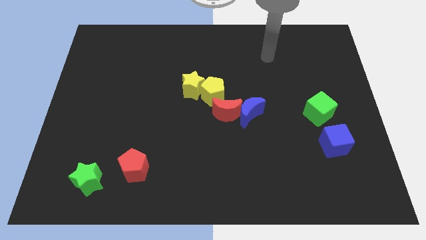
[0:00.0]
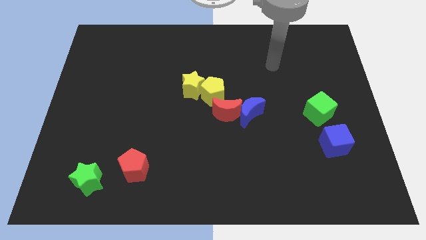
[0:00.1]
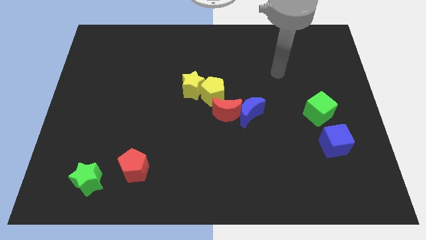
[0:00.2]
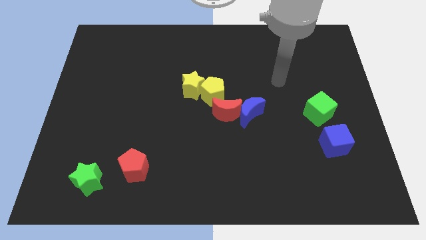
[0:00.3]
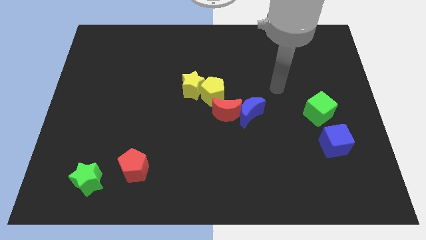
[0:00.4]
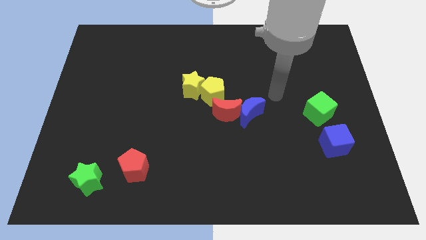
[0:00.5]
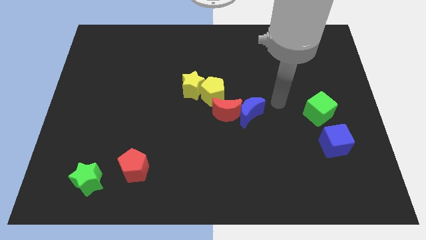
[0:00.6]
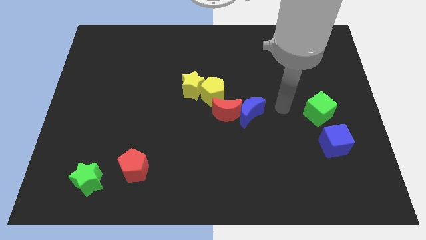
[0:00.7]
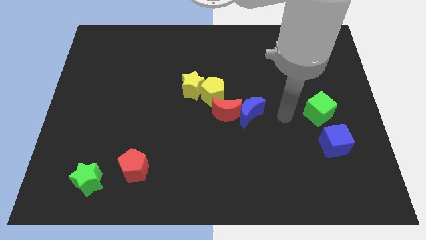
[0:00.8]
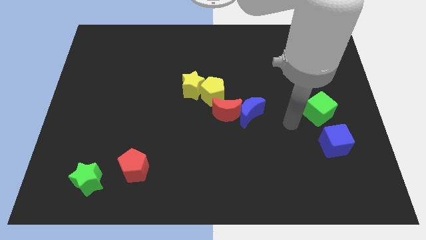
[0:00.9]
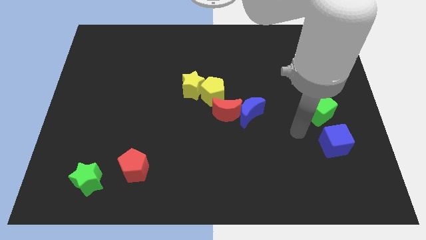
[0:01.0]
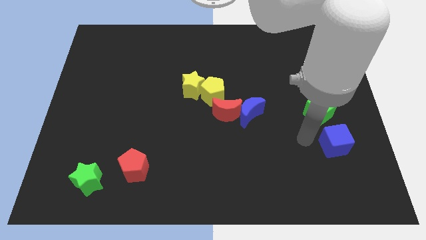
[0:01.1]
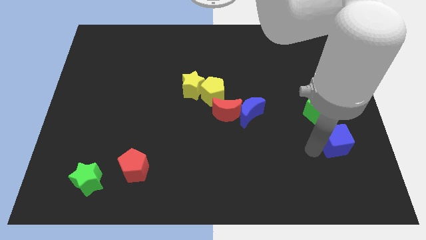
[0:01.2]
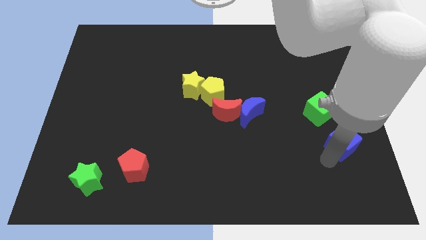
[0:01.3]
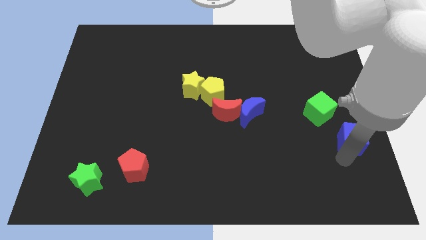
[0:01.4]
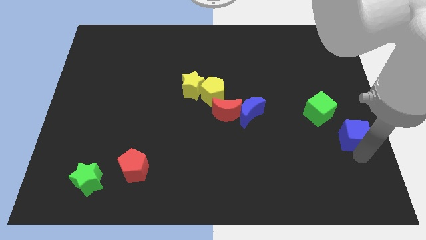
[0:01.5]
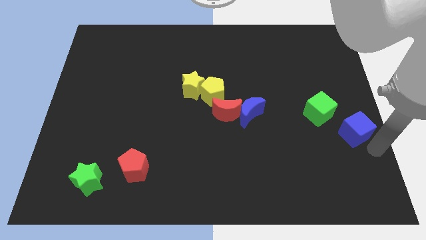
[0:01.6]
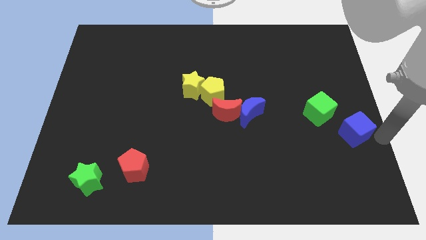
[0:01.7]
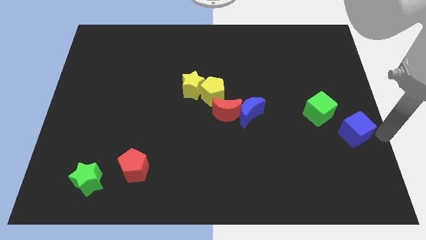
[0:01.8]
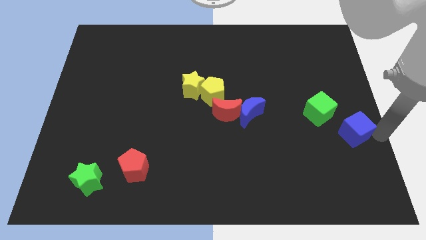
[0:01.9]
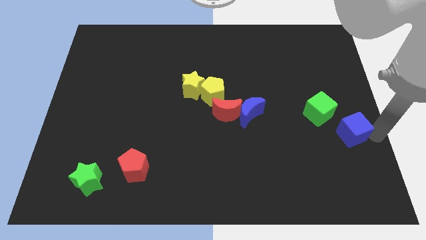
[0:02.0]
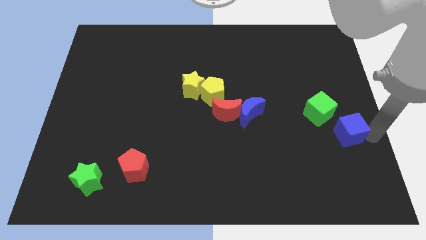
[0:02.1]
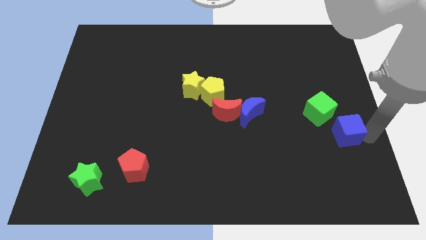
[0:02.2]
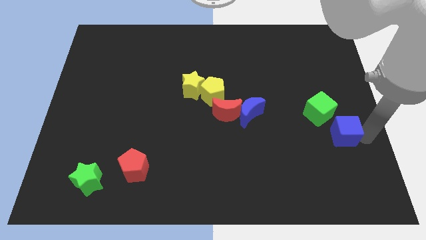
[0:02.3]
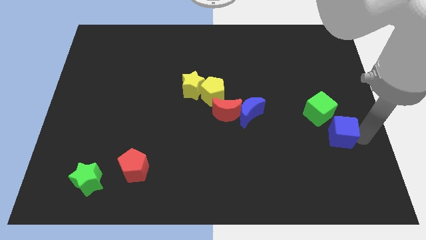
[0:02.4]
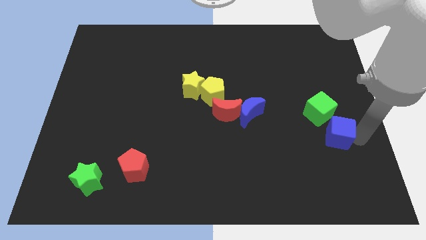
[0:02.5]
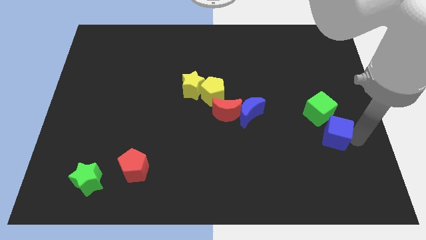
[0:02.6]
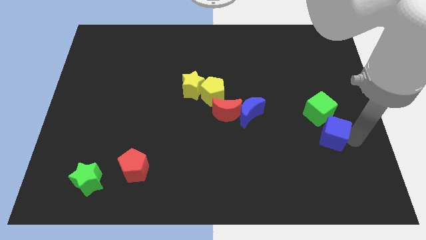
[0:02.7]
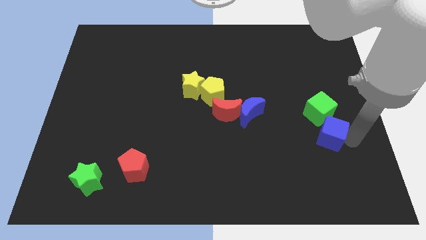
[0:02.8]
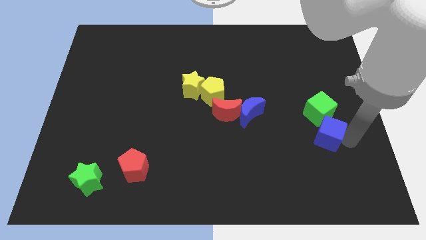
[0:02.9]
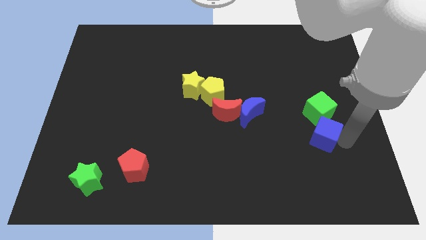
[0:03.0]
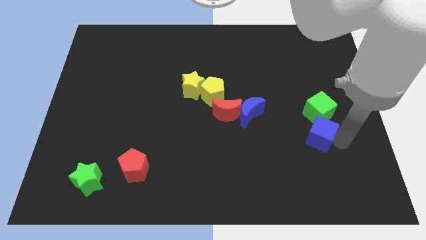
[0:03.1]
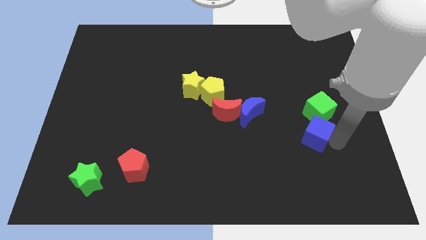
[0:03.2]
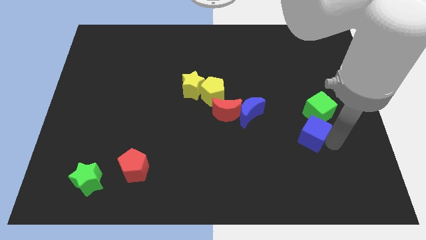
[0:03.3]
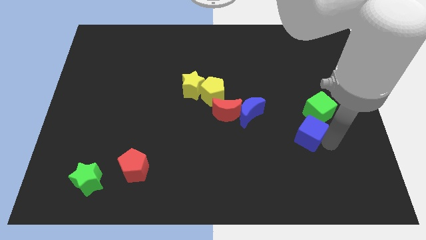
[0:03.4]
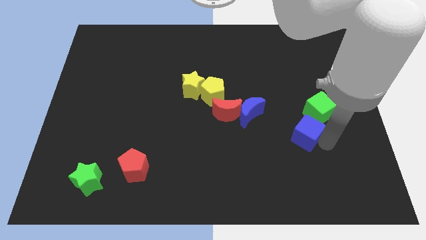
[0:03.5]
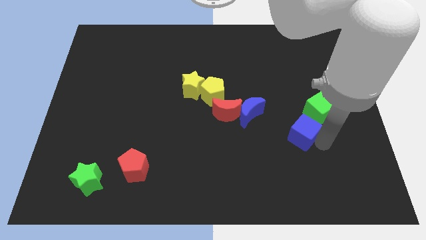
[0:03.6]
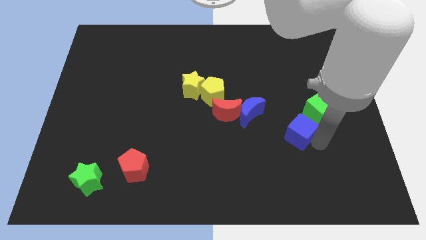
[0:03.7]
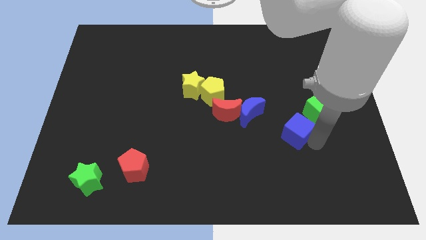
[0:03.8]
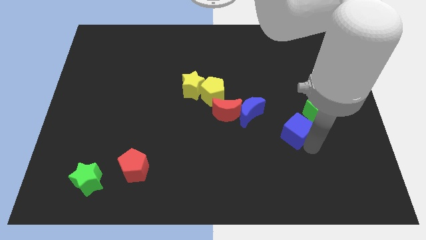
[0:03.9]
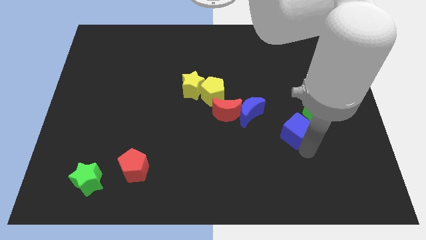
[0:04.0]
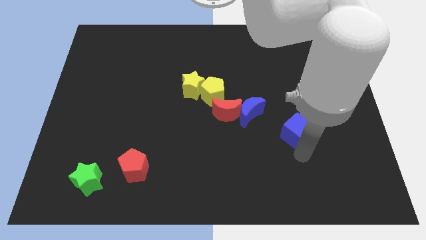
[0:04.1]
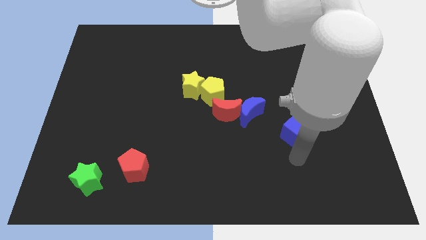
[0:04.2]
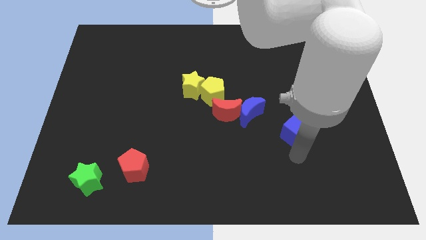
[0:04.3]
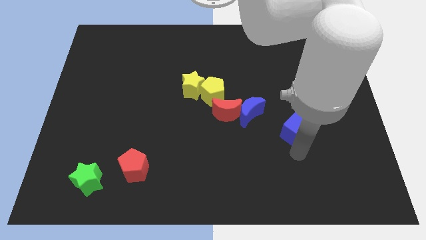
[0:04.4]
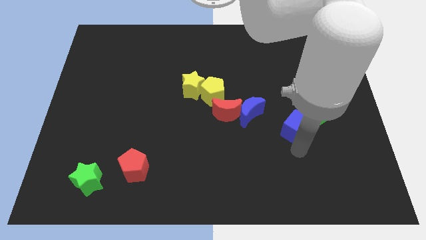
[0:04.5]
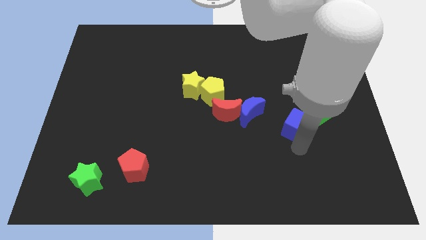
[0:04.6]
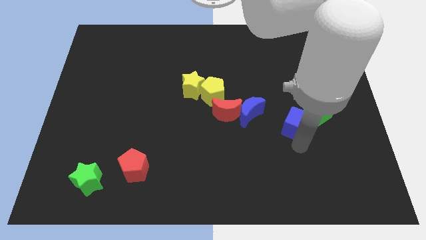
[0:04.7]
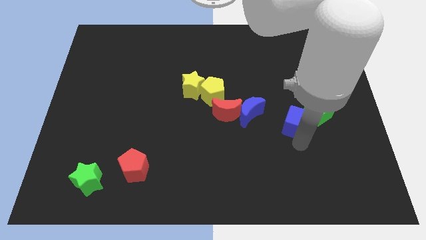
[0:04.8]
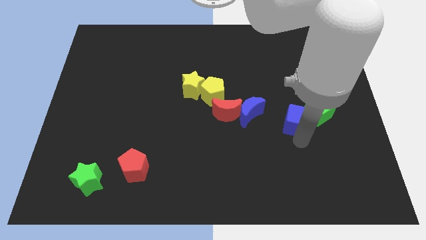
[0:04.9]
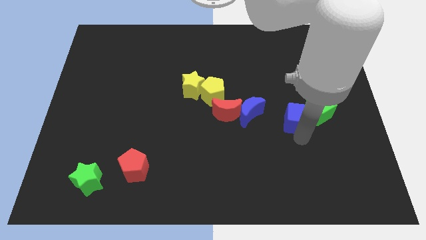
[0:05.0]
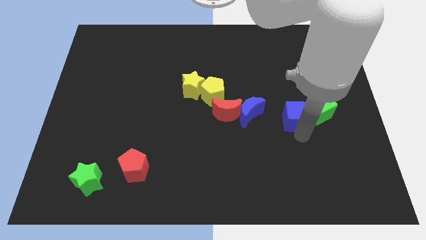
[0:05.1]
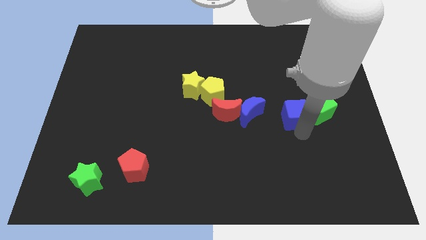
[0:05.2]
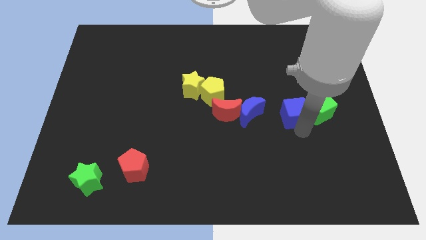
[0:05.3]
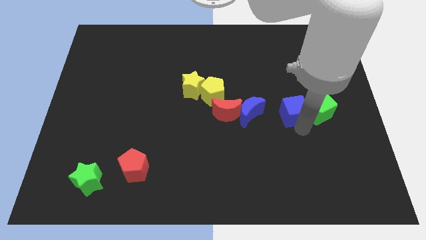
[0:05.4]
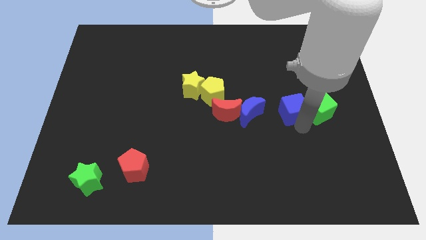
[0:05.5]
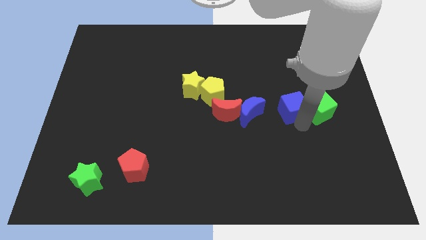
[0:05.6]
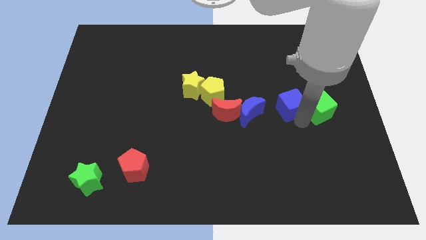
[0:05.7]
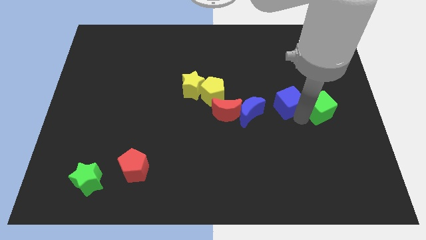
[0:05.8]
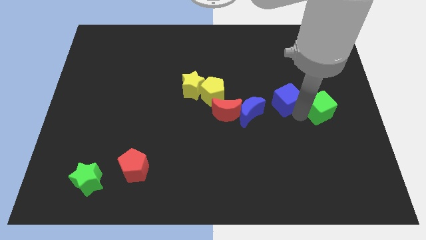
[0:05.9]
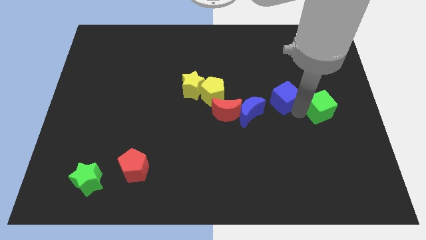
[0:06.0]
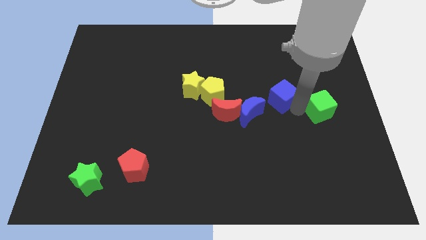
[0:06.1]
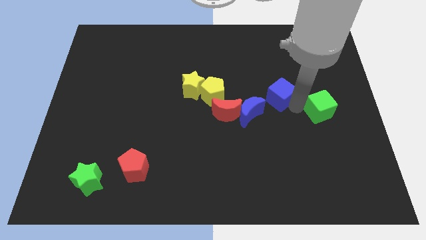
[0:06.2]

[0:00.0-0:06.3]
put the blue cube just right of the yellow pentagon

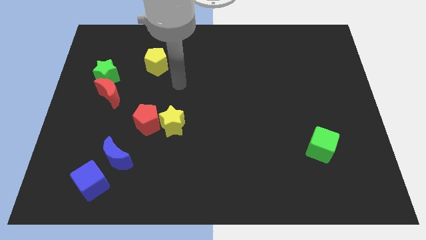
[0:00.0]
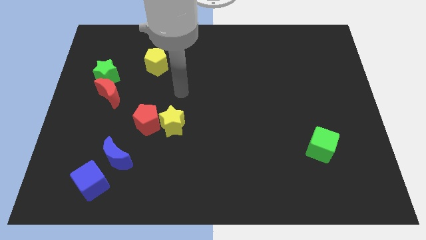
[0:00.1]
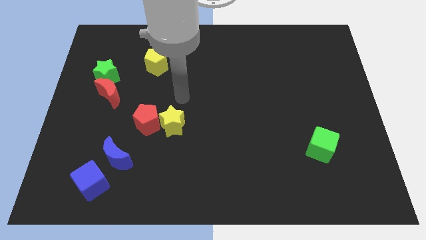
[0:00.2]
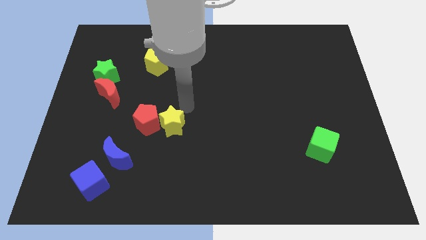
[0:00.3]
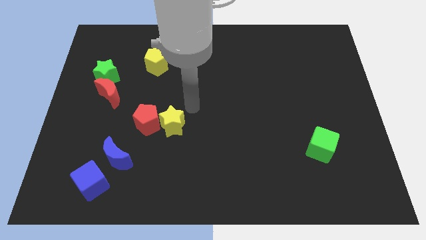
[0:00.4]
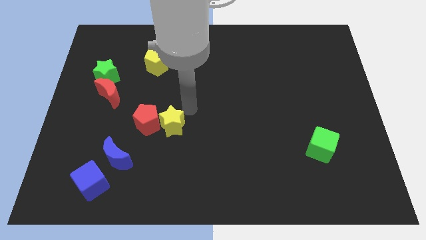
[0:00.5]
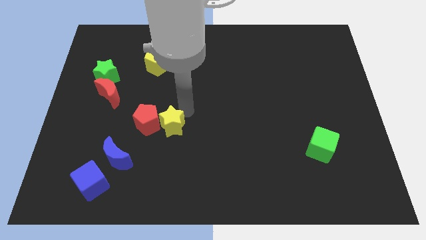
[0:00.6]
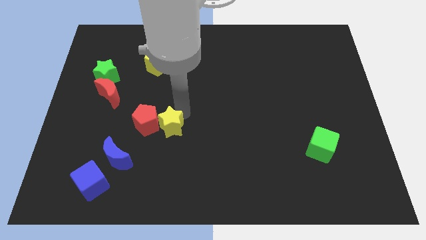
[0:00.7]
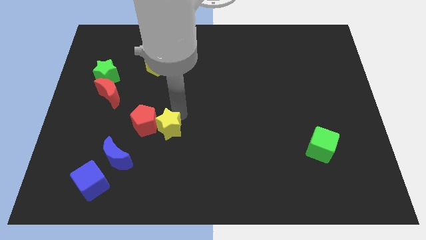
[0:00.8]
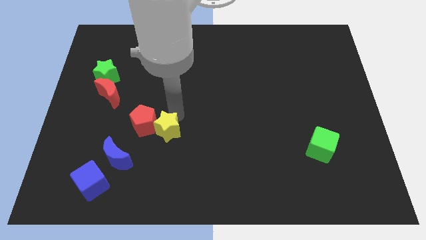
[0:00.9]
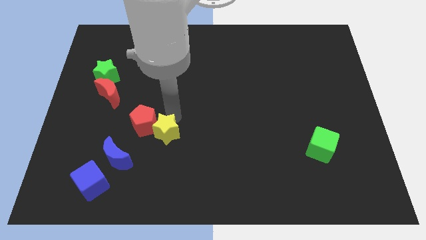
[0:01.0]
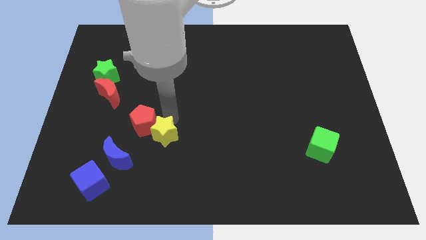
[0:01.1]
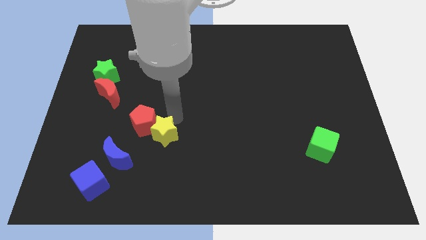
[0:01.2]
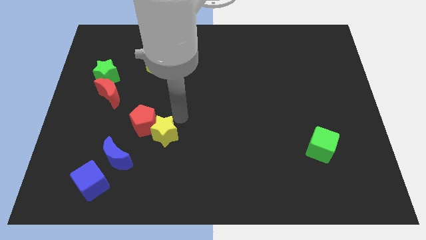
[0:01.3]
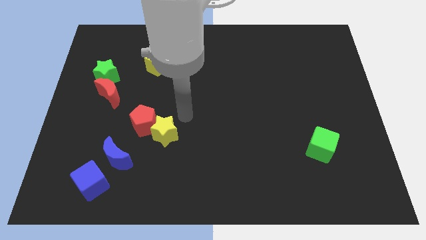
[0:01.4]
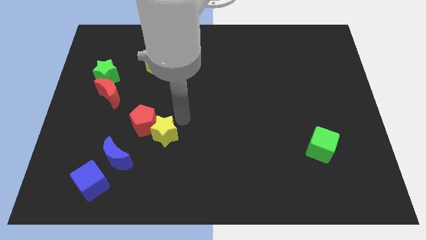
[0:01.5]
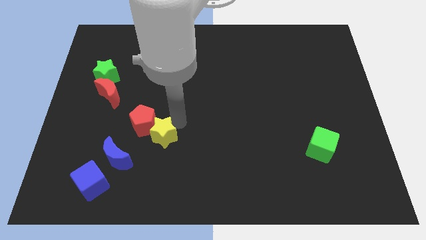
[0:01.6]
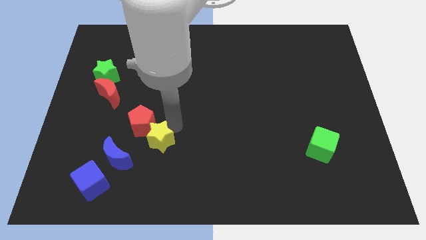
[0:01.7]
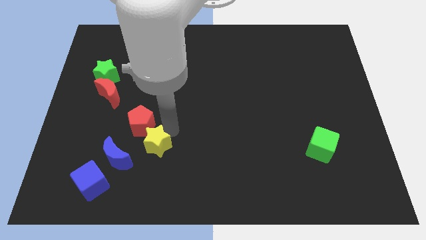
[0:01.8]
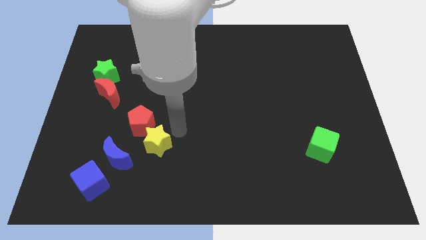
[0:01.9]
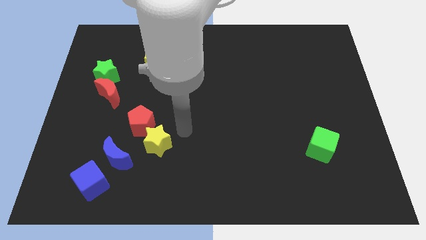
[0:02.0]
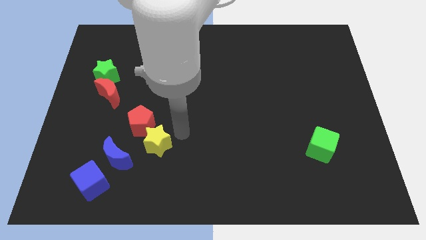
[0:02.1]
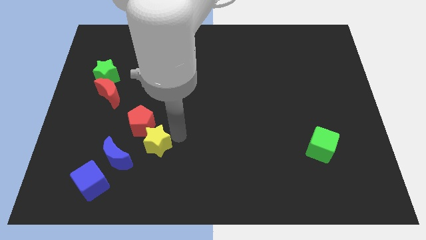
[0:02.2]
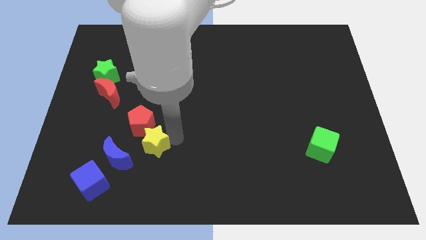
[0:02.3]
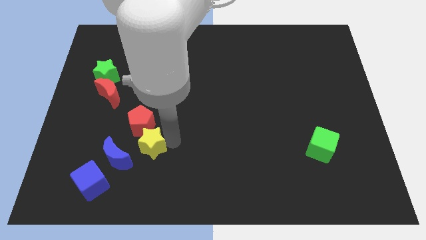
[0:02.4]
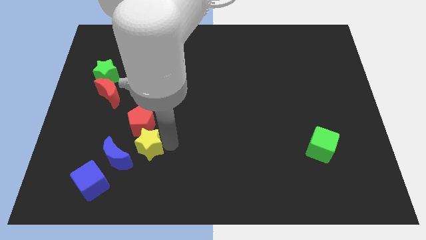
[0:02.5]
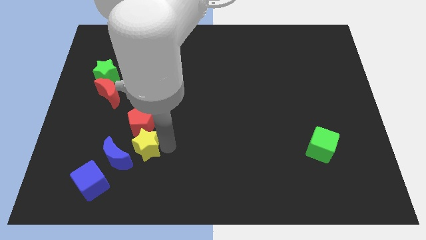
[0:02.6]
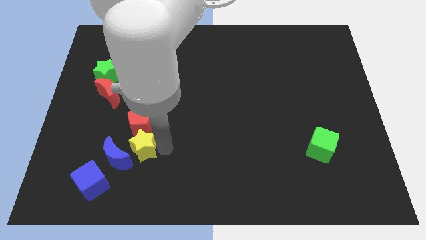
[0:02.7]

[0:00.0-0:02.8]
slide the yellow star to the top right side of the blue cube
